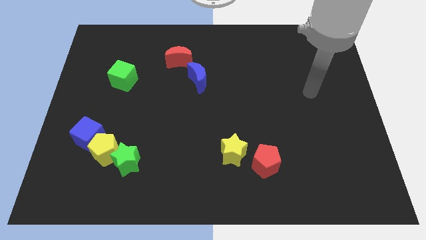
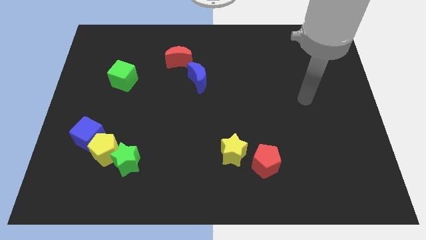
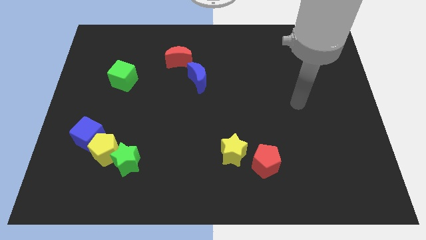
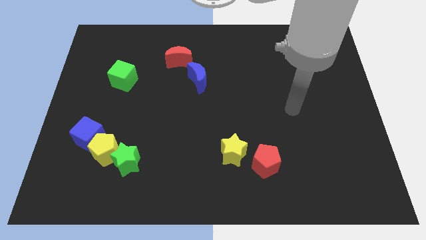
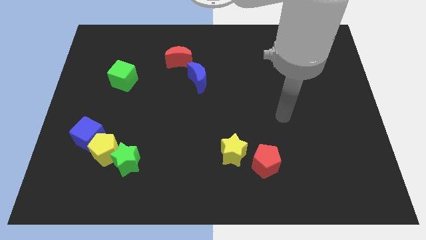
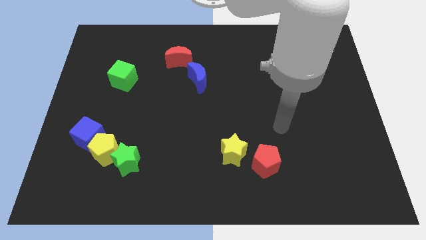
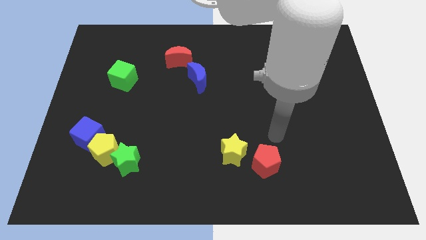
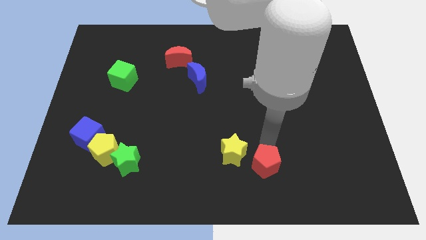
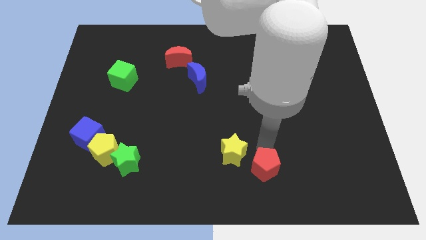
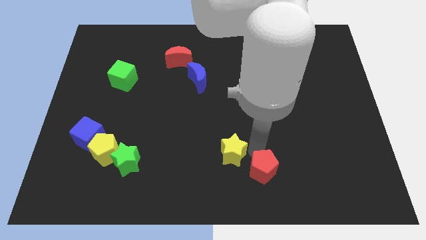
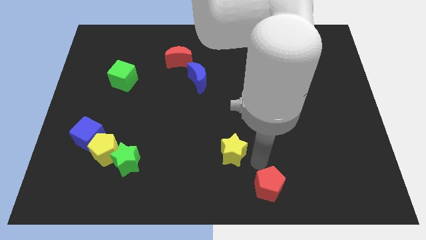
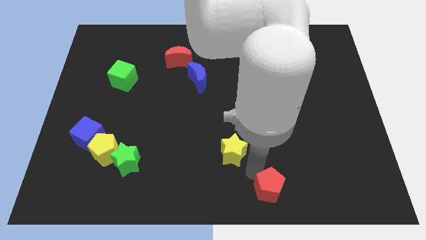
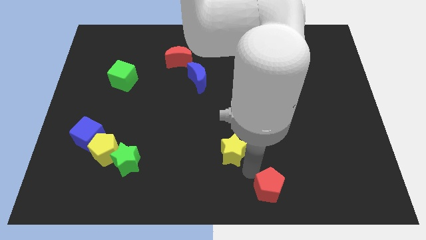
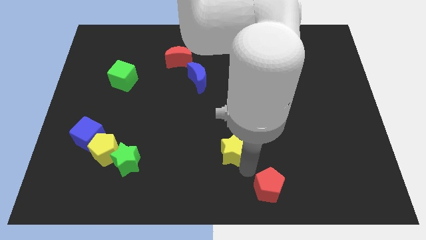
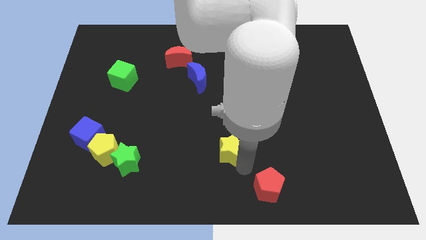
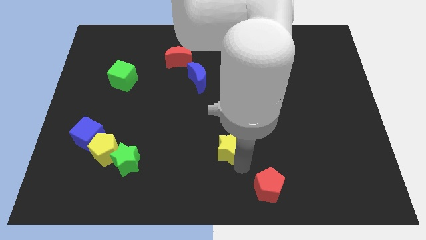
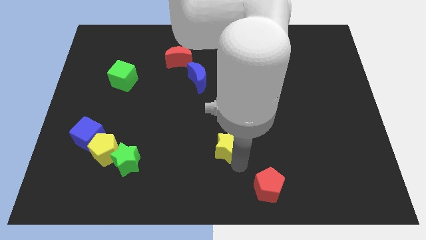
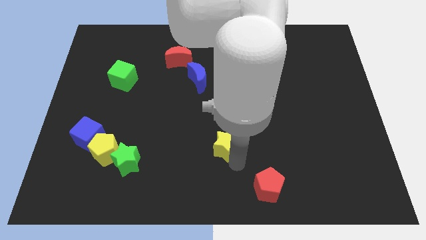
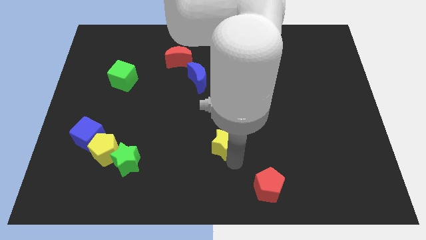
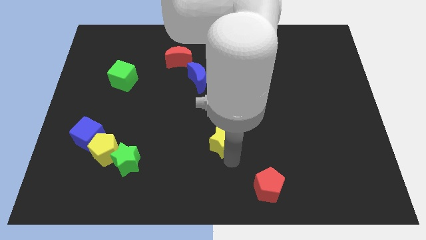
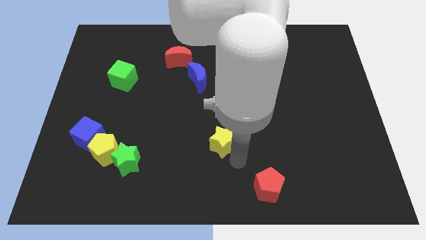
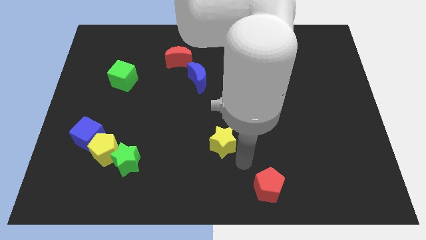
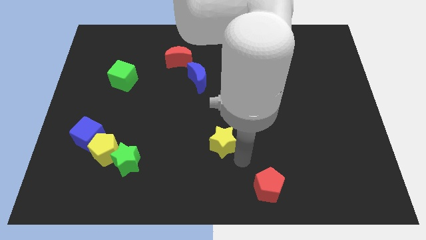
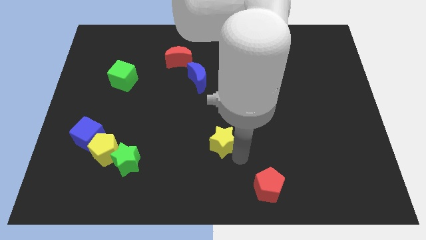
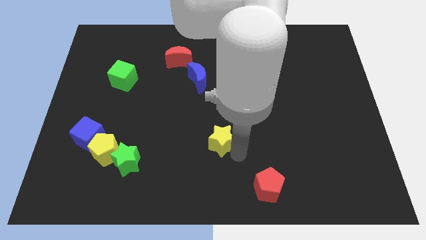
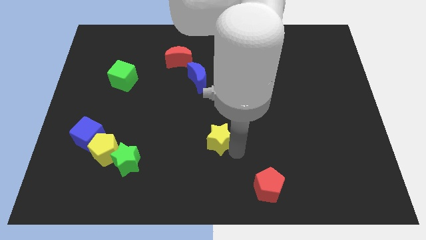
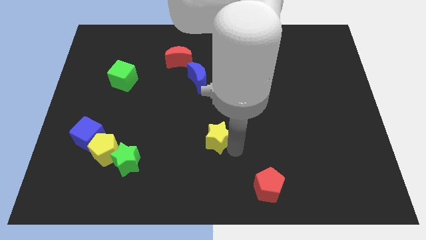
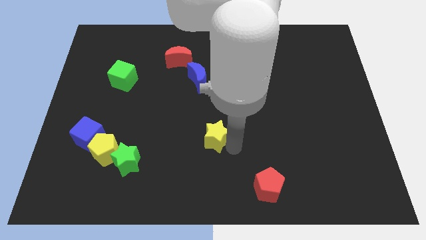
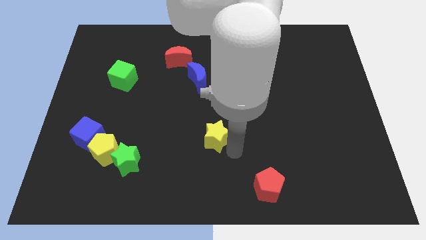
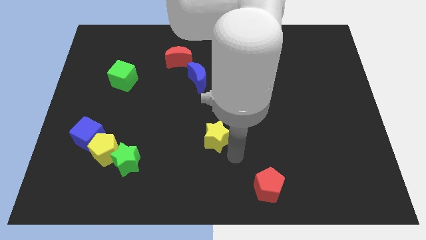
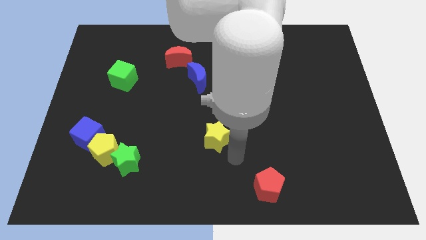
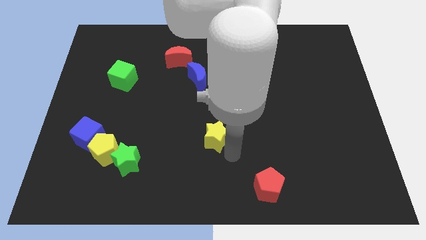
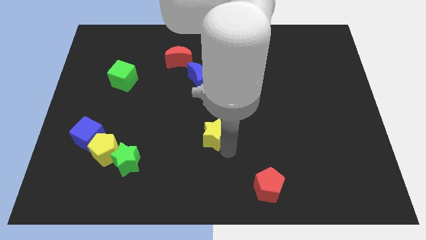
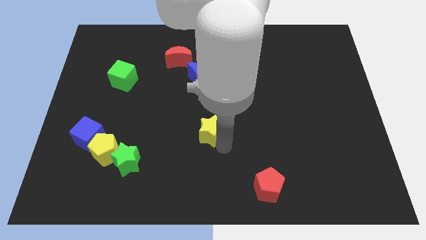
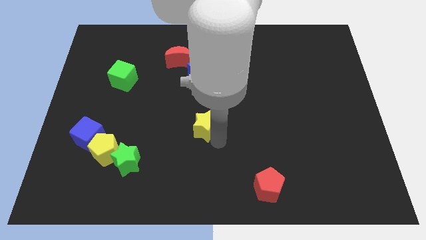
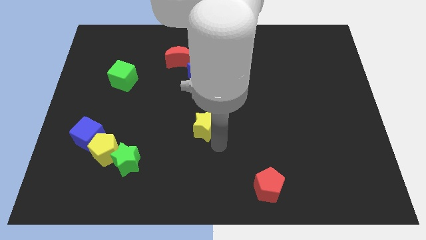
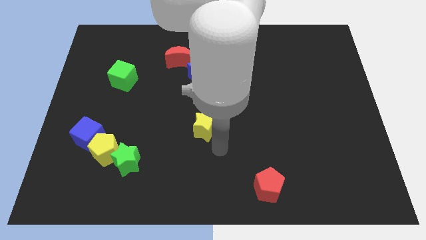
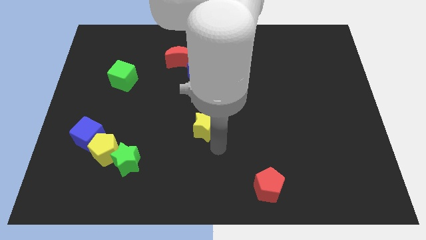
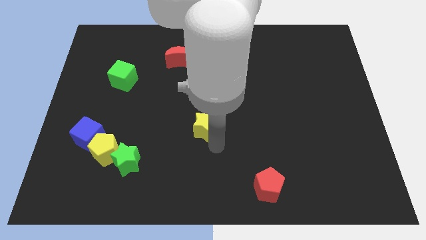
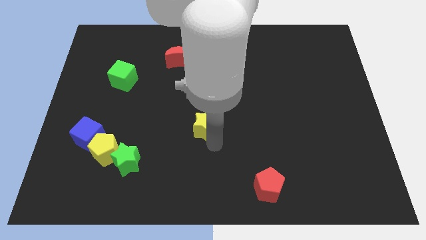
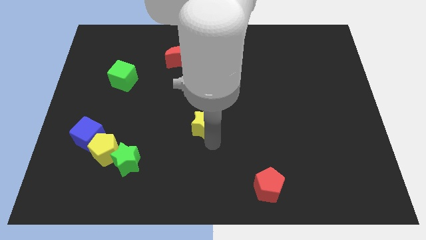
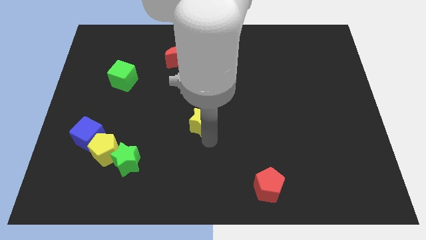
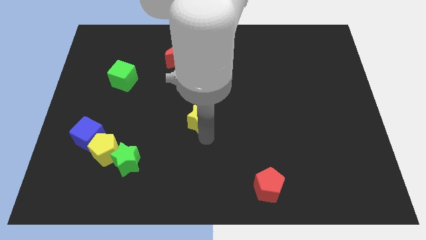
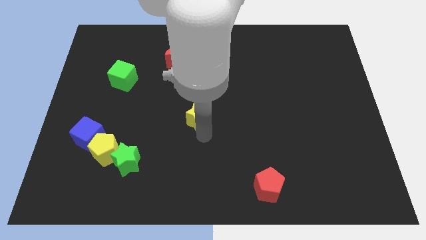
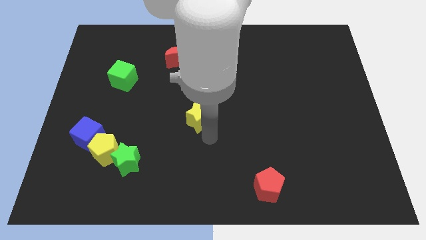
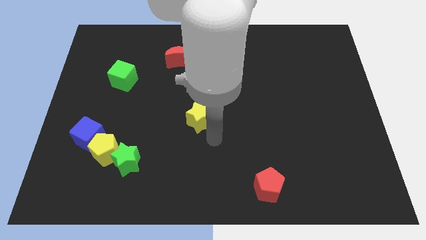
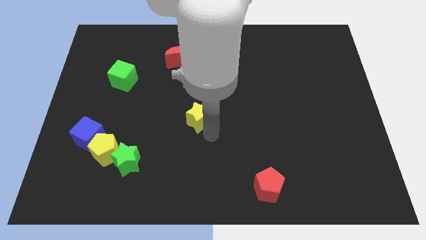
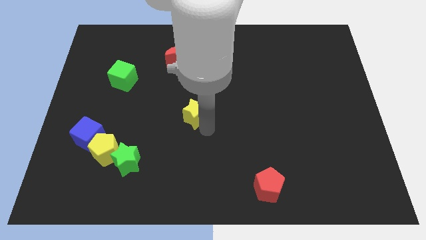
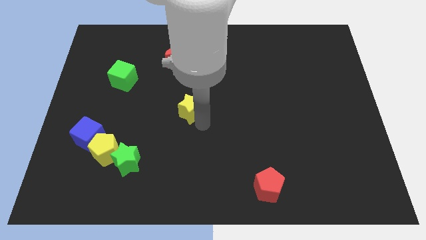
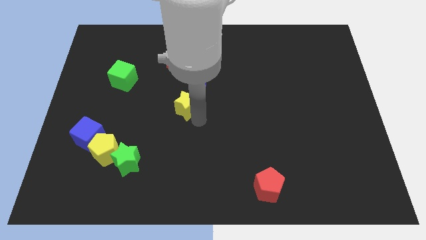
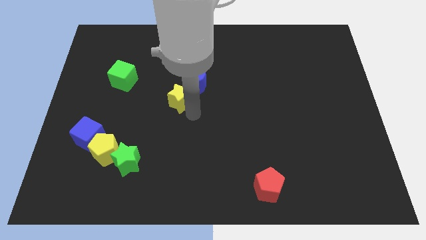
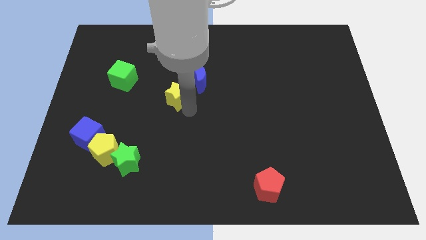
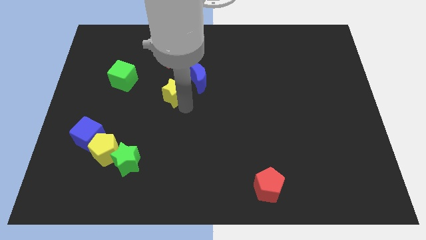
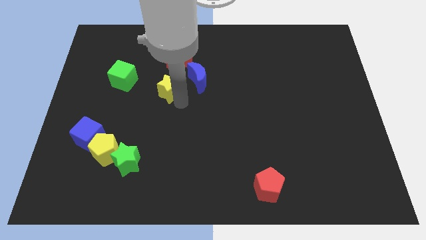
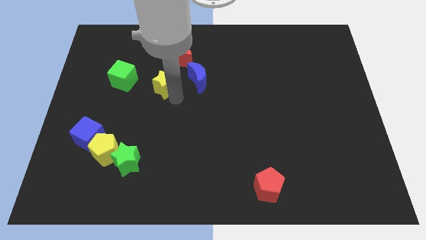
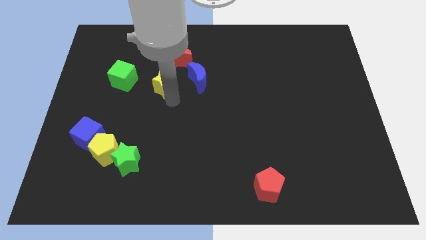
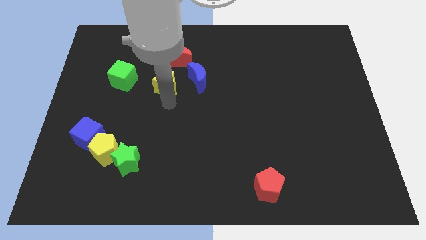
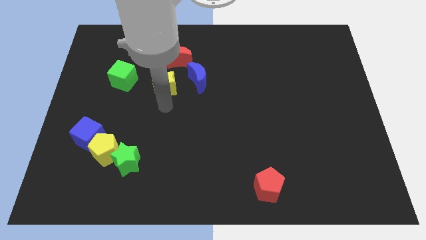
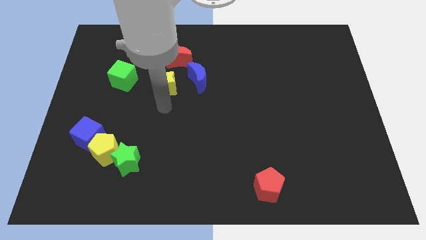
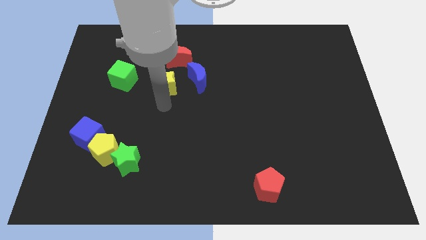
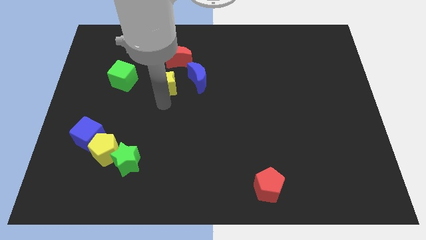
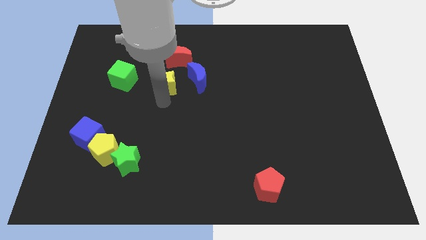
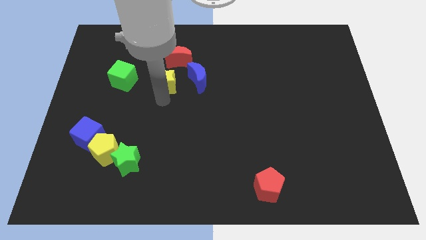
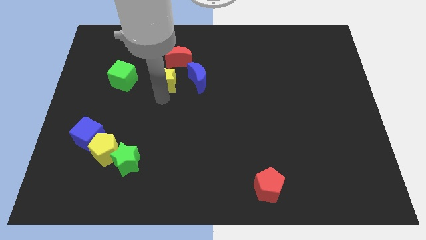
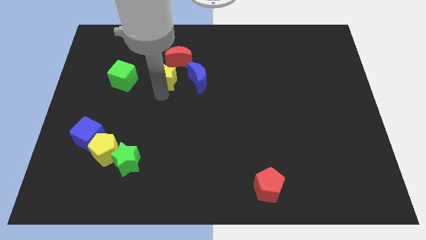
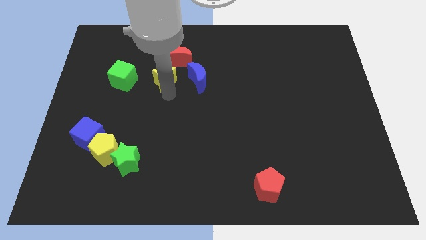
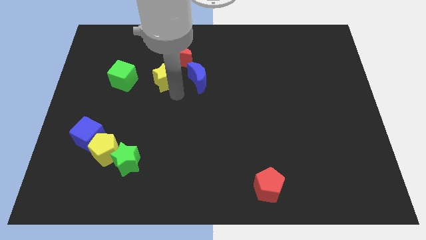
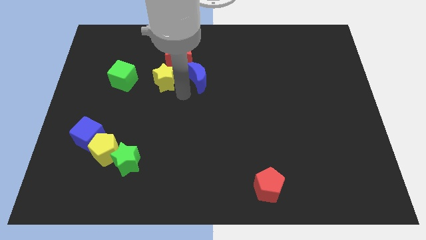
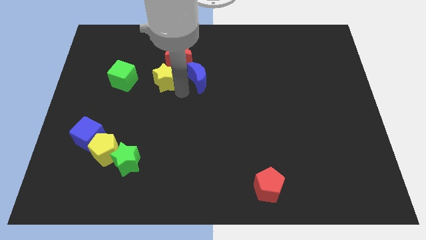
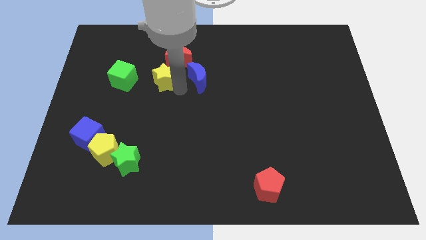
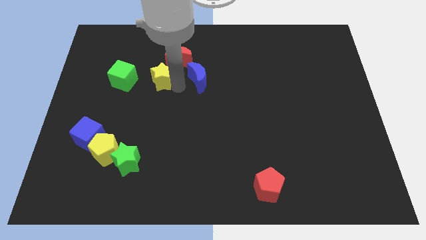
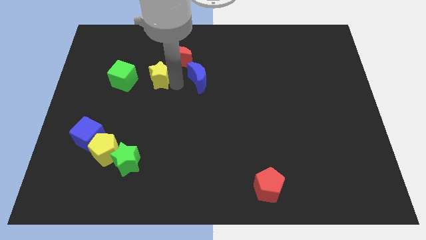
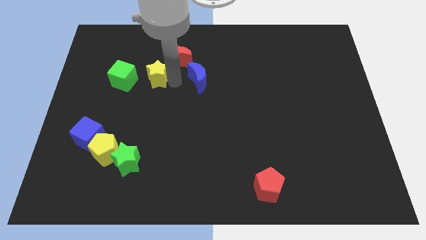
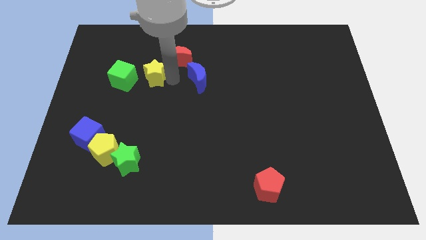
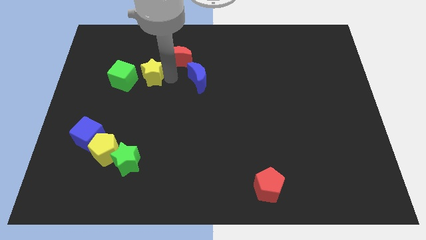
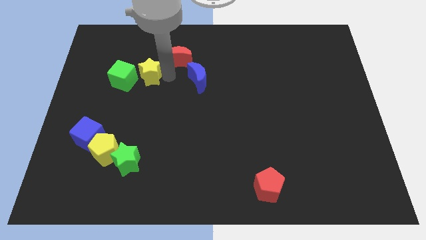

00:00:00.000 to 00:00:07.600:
put the yellow star left of the red moon
